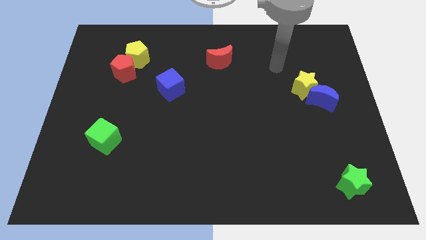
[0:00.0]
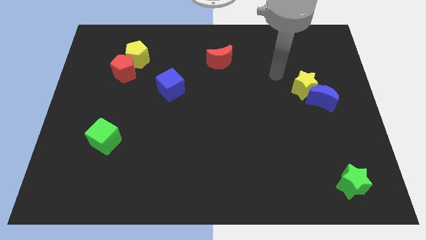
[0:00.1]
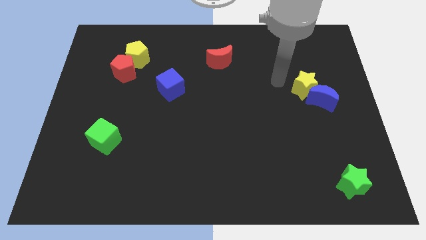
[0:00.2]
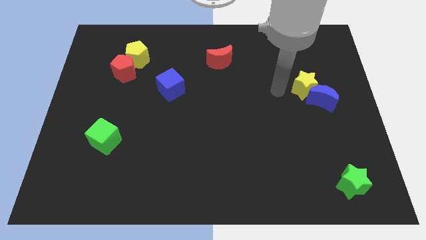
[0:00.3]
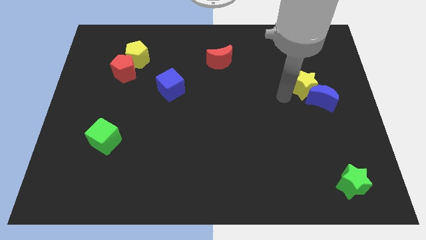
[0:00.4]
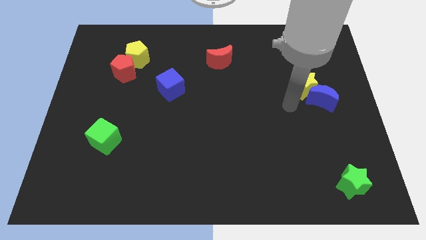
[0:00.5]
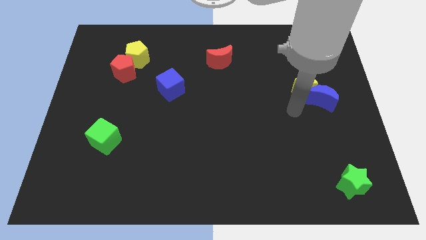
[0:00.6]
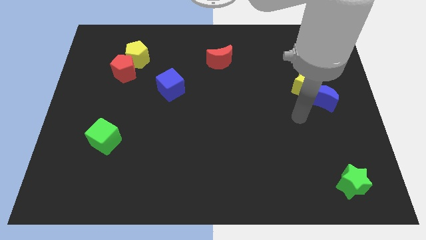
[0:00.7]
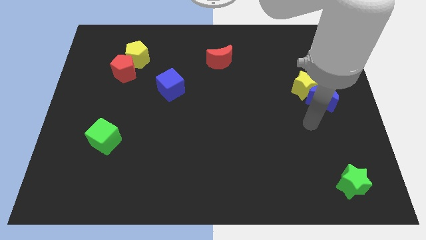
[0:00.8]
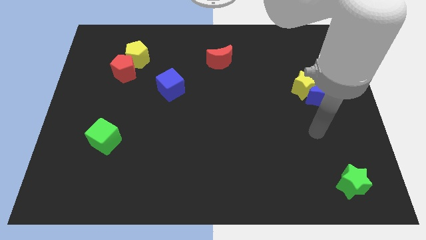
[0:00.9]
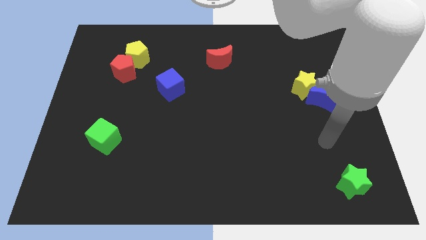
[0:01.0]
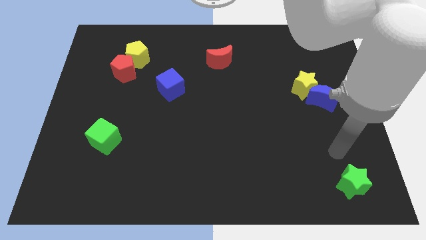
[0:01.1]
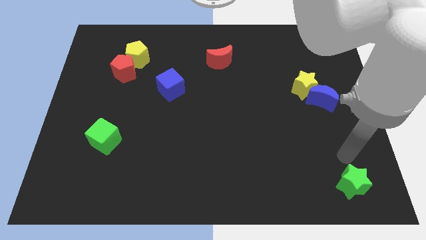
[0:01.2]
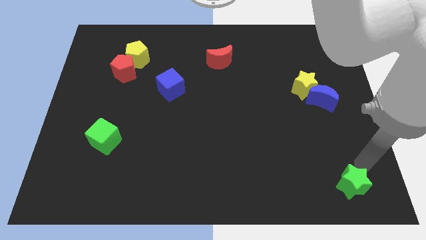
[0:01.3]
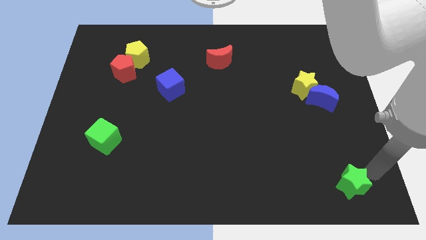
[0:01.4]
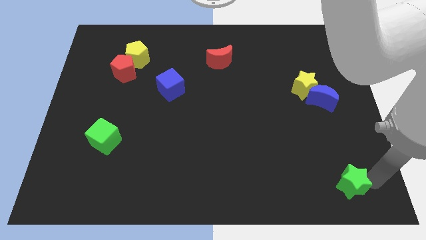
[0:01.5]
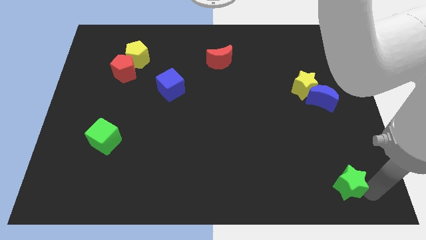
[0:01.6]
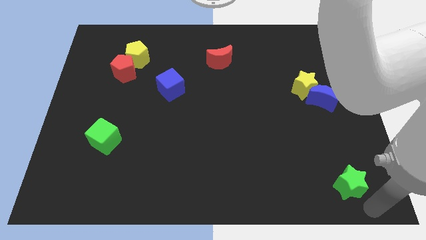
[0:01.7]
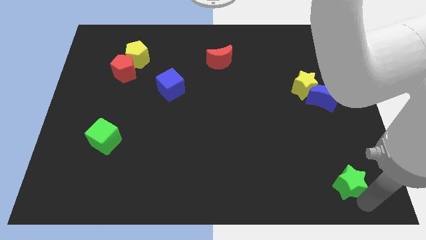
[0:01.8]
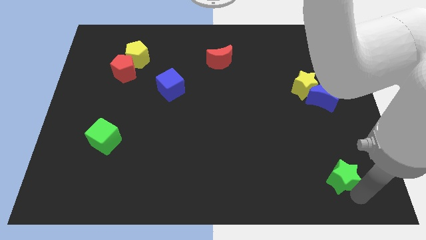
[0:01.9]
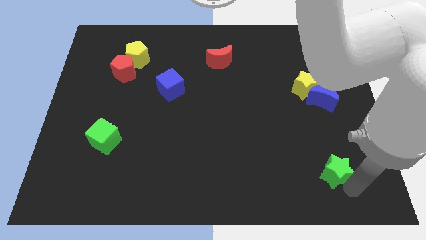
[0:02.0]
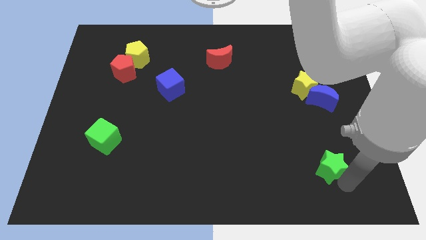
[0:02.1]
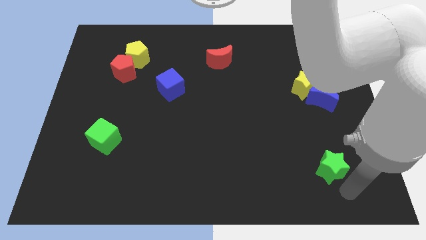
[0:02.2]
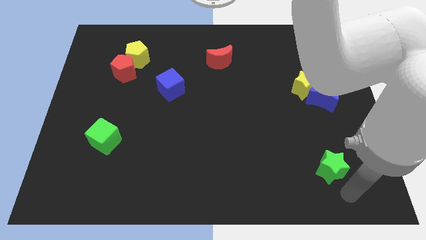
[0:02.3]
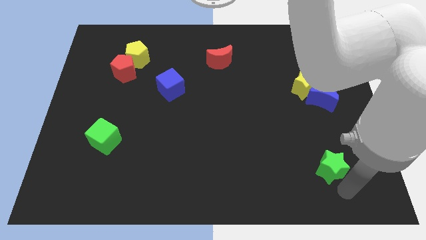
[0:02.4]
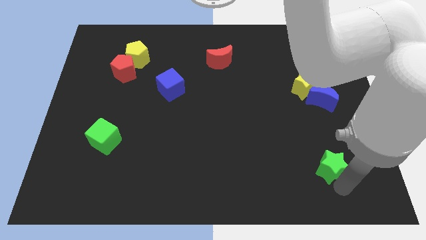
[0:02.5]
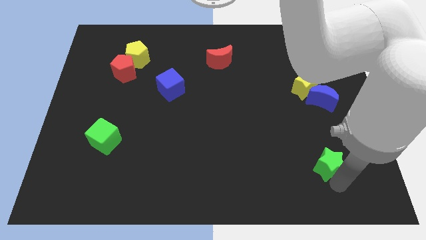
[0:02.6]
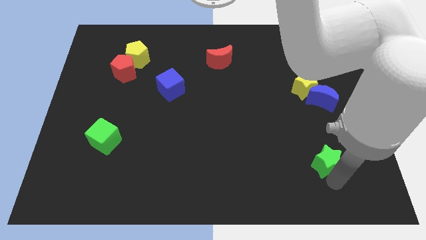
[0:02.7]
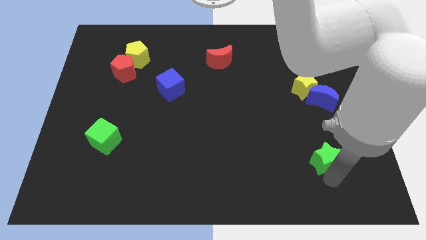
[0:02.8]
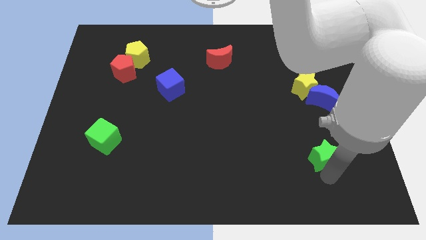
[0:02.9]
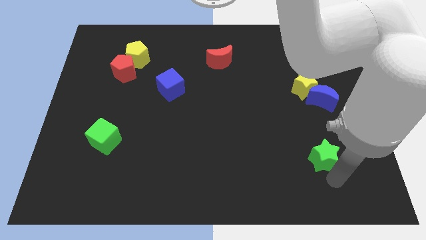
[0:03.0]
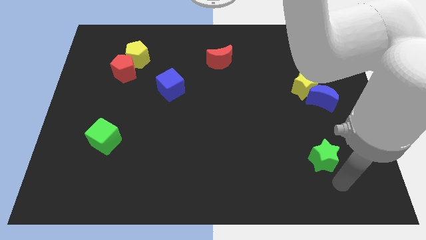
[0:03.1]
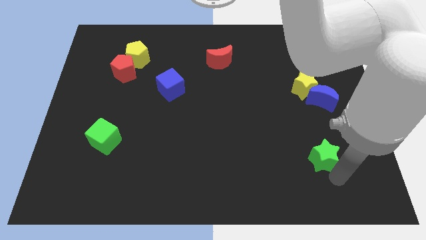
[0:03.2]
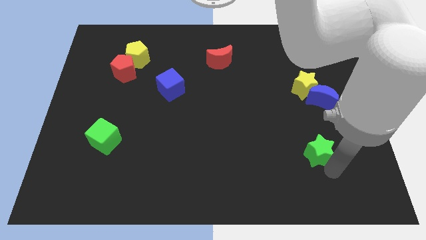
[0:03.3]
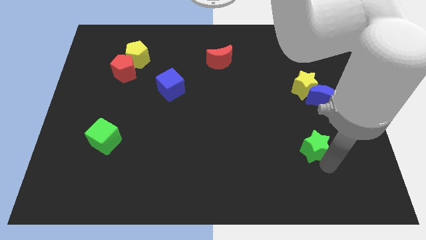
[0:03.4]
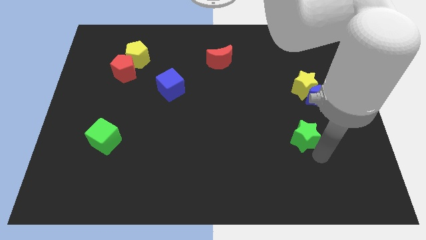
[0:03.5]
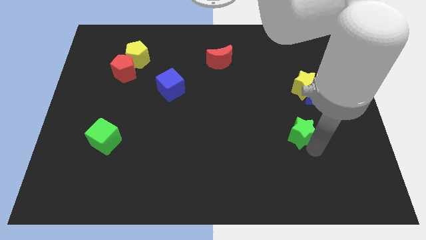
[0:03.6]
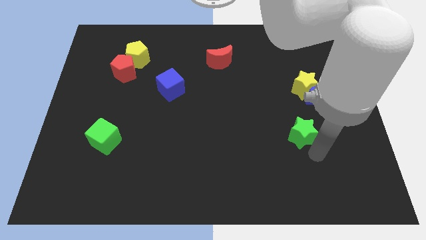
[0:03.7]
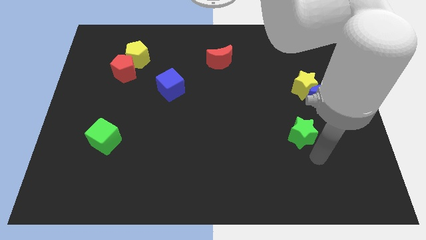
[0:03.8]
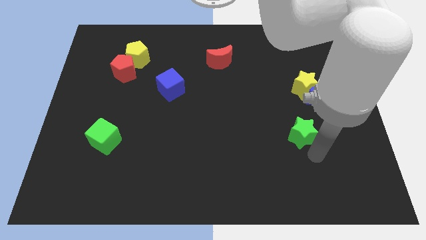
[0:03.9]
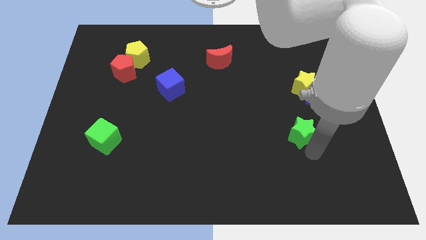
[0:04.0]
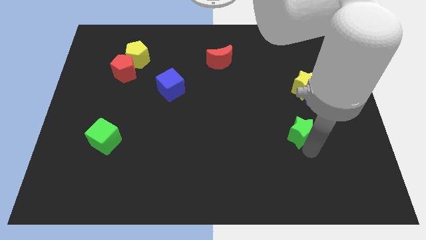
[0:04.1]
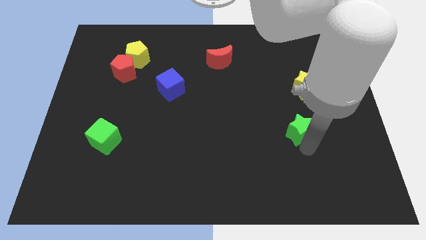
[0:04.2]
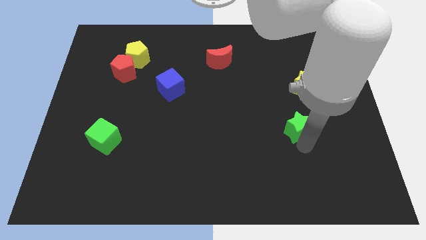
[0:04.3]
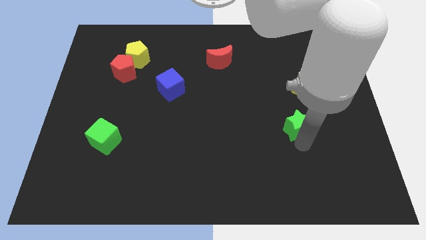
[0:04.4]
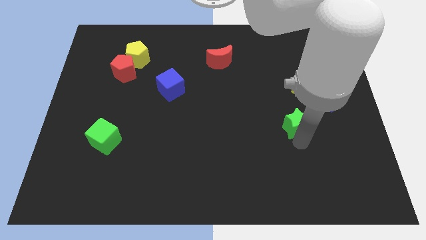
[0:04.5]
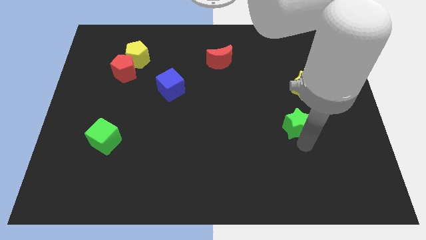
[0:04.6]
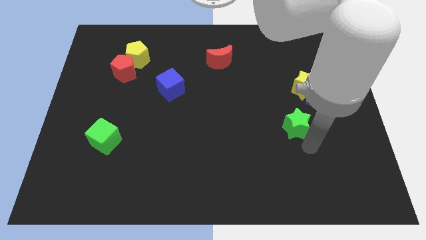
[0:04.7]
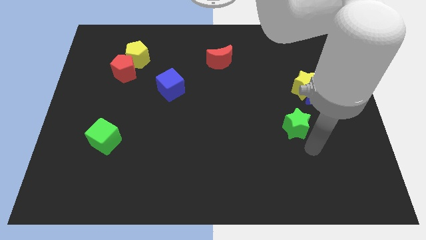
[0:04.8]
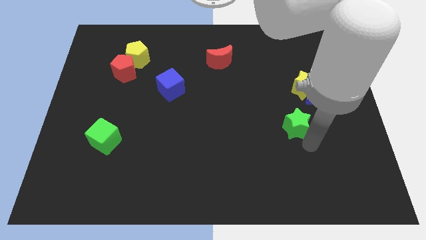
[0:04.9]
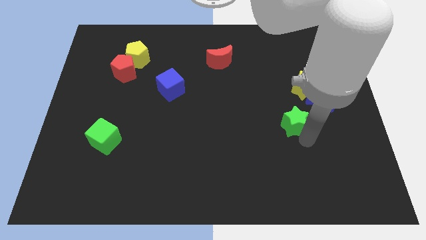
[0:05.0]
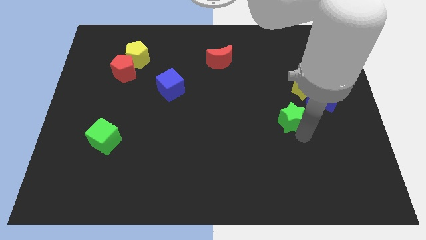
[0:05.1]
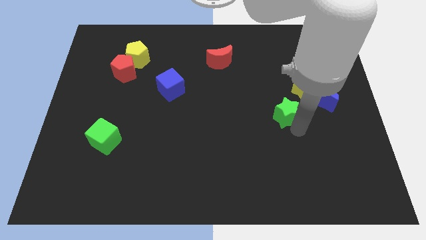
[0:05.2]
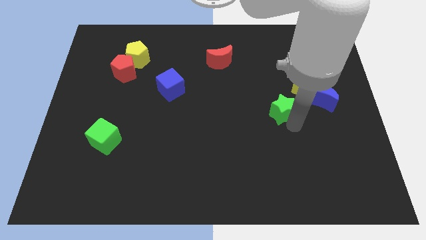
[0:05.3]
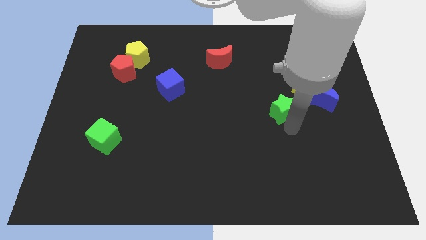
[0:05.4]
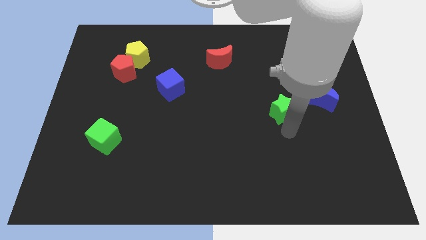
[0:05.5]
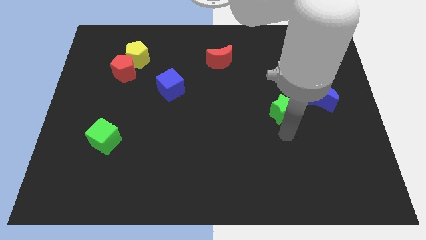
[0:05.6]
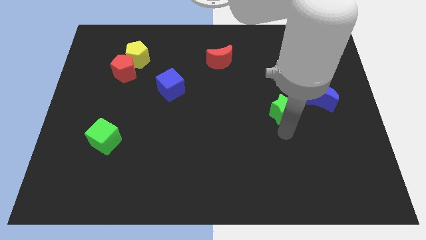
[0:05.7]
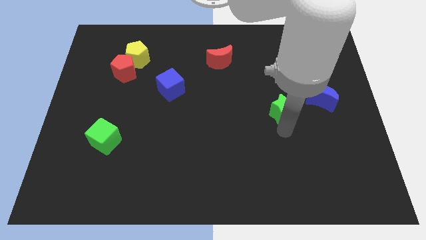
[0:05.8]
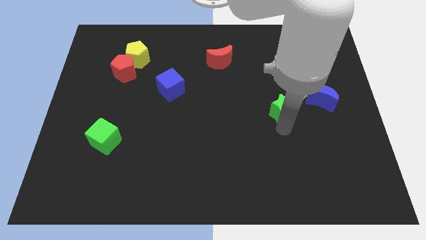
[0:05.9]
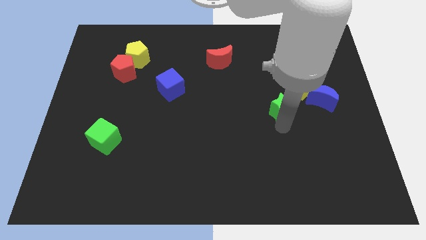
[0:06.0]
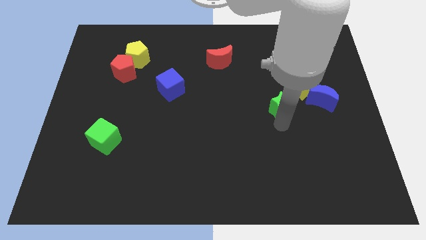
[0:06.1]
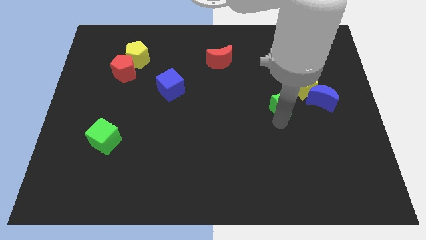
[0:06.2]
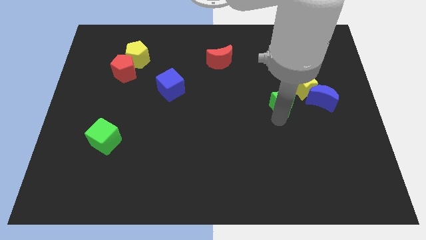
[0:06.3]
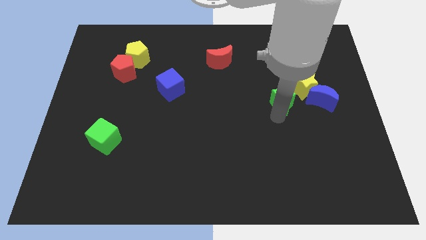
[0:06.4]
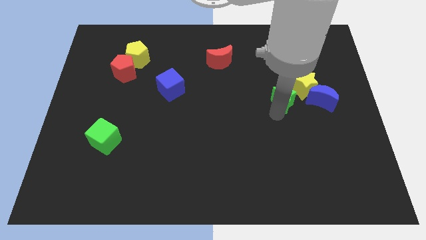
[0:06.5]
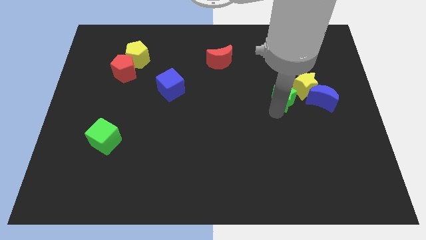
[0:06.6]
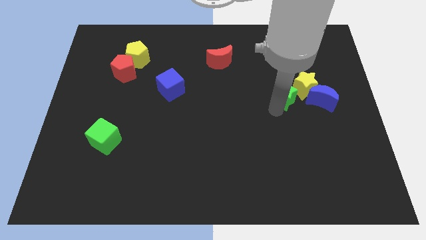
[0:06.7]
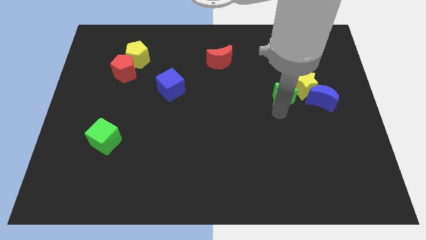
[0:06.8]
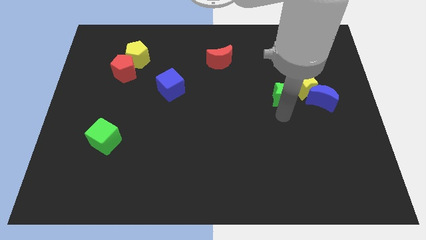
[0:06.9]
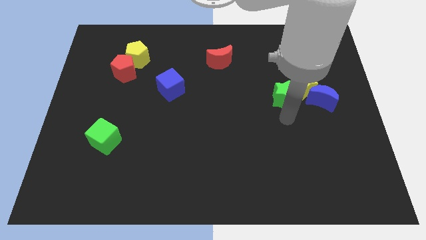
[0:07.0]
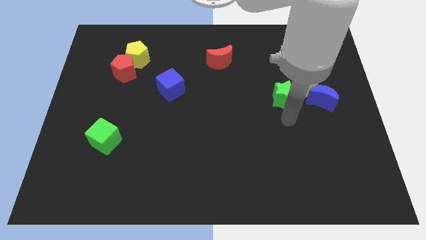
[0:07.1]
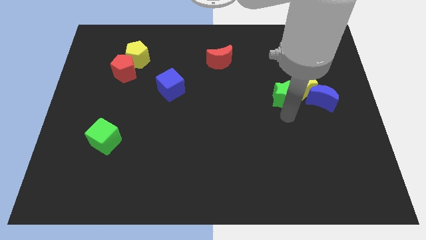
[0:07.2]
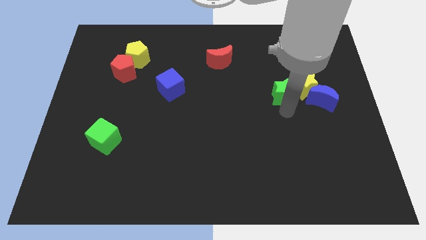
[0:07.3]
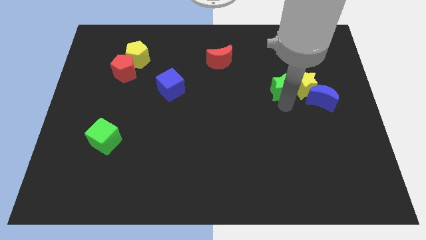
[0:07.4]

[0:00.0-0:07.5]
slide the green star to the top left of the yellow star
